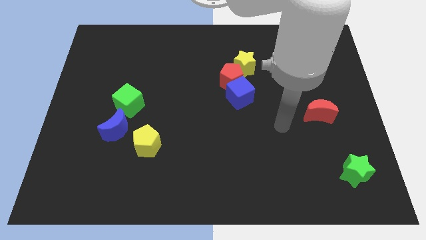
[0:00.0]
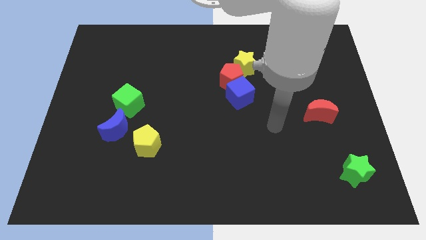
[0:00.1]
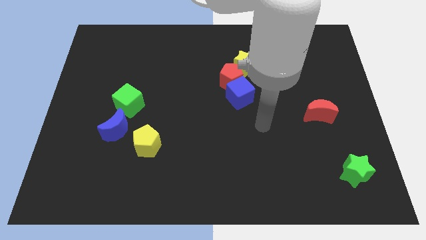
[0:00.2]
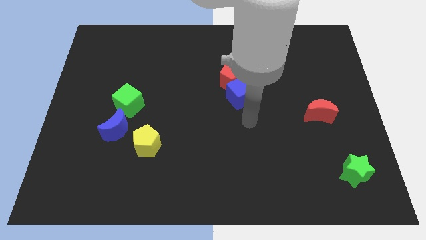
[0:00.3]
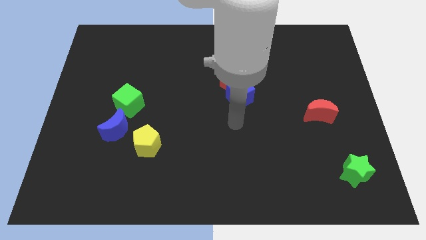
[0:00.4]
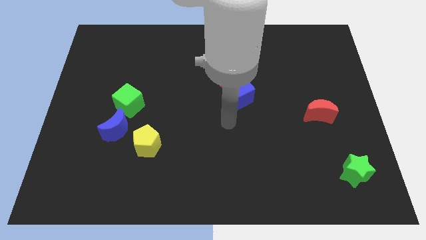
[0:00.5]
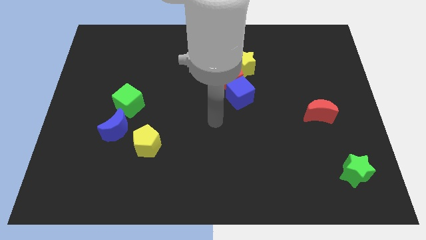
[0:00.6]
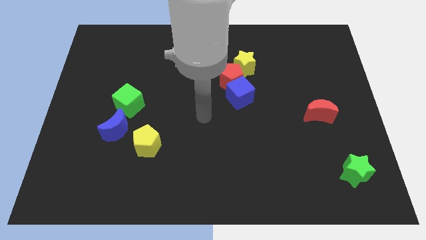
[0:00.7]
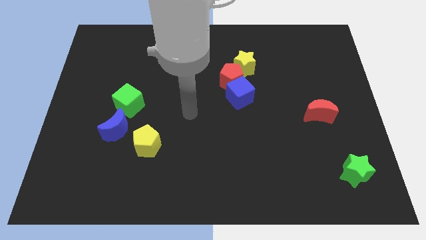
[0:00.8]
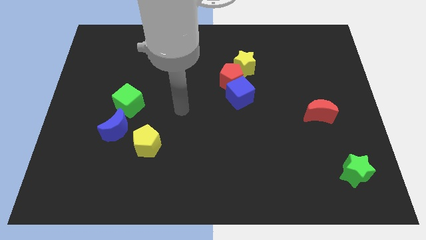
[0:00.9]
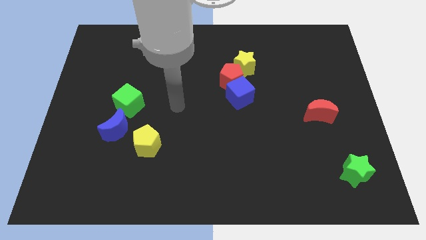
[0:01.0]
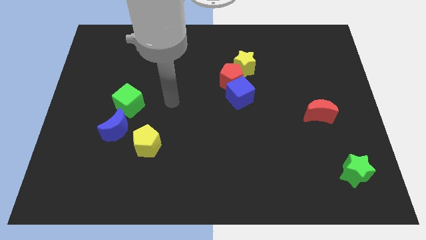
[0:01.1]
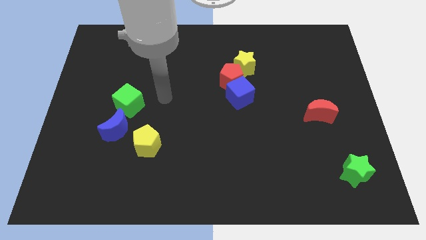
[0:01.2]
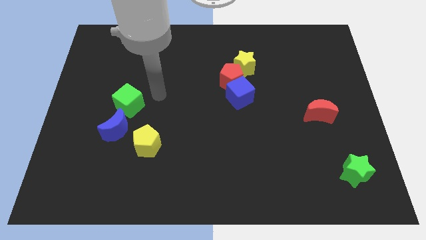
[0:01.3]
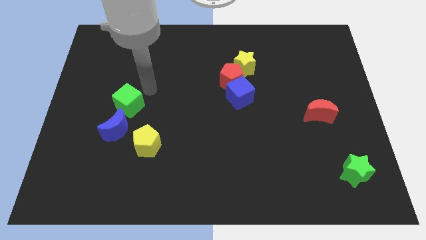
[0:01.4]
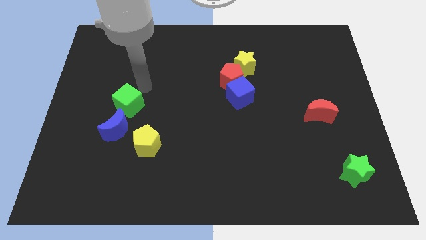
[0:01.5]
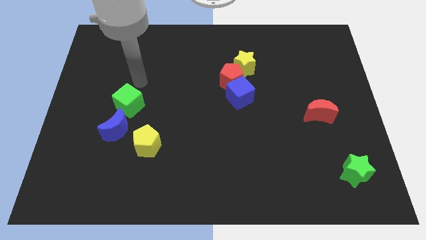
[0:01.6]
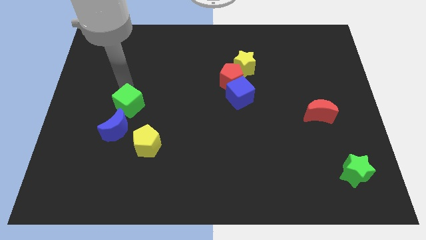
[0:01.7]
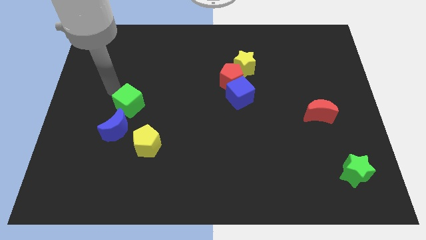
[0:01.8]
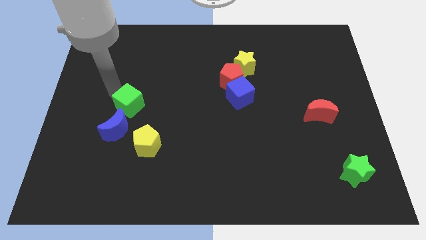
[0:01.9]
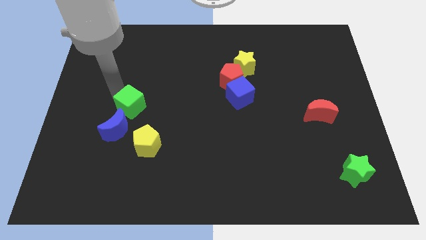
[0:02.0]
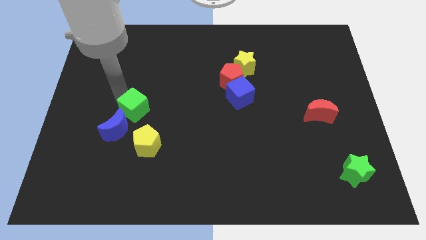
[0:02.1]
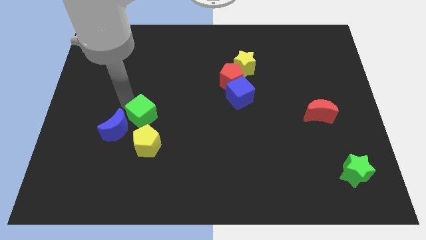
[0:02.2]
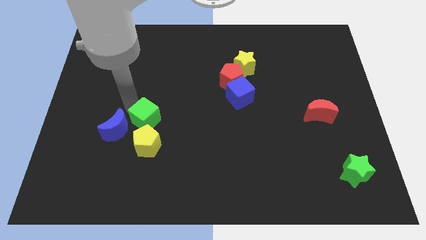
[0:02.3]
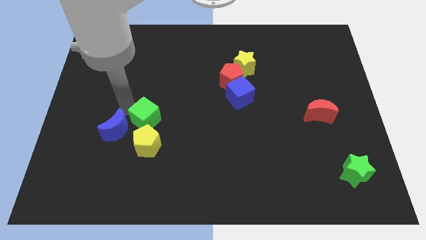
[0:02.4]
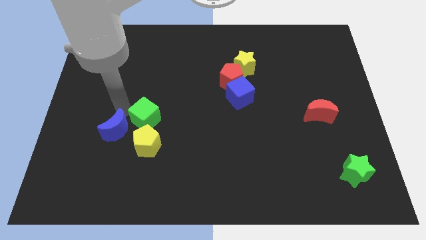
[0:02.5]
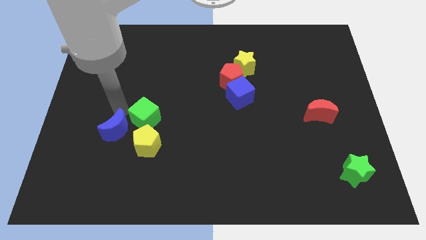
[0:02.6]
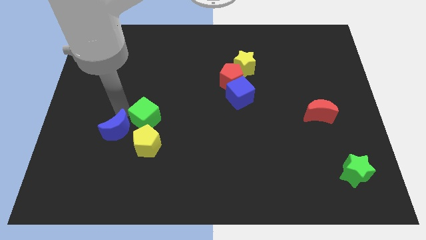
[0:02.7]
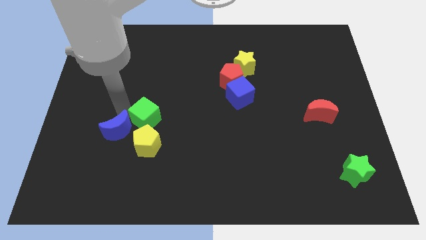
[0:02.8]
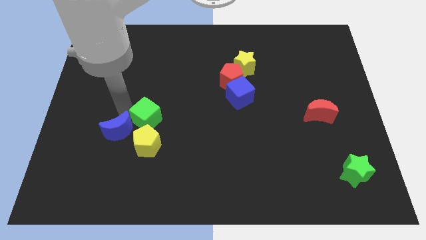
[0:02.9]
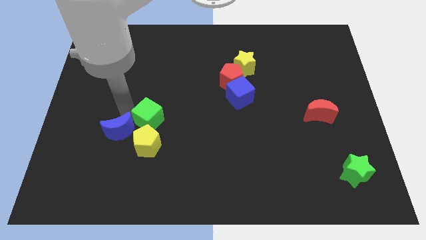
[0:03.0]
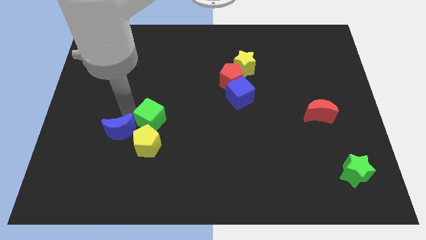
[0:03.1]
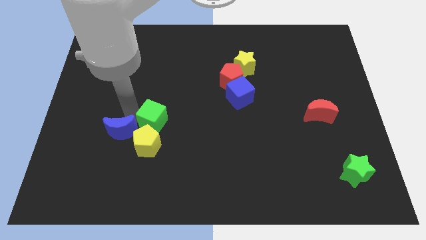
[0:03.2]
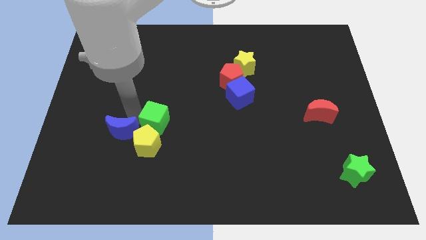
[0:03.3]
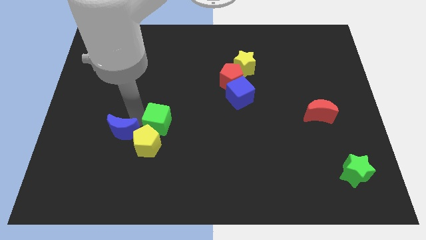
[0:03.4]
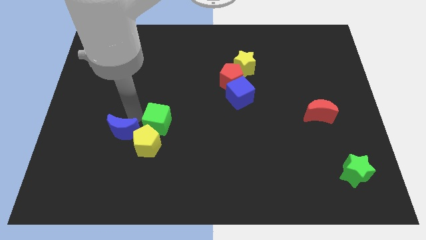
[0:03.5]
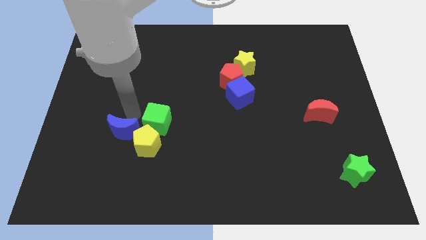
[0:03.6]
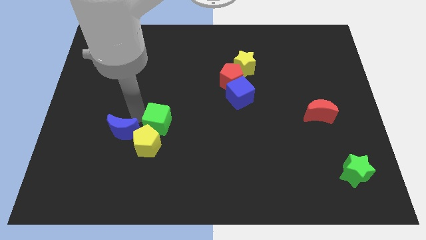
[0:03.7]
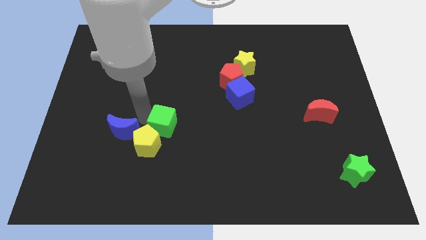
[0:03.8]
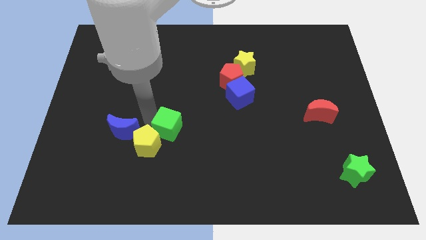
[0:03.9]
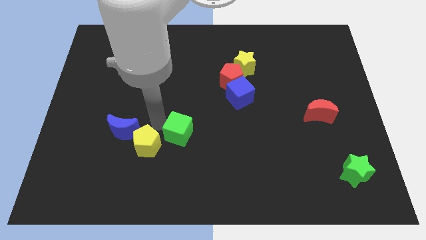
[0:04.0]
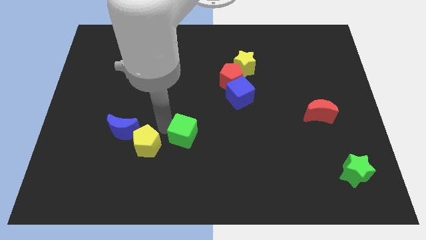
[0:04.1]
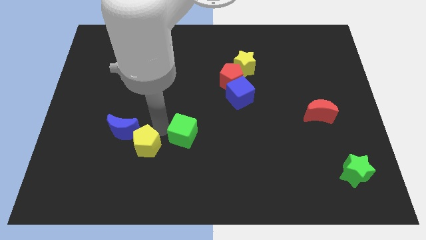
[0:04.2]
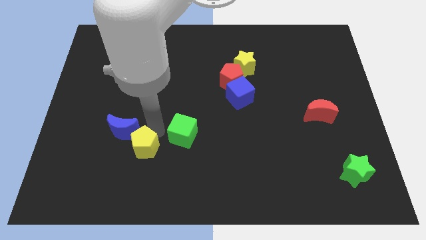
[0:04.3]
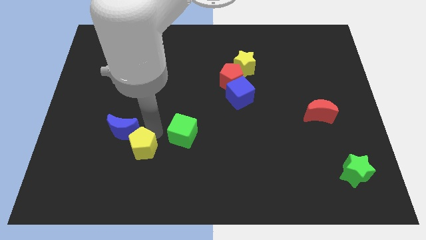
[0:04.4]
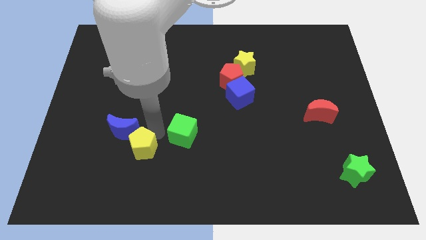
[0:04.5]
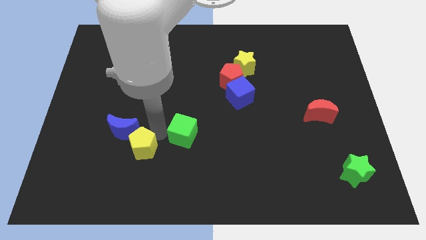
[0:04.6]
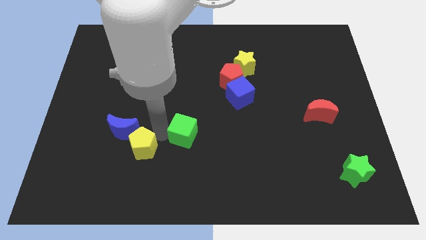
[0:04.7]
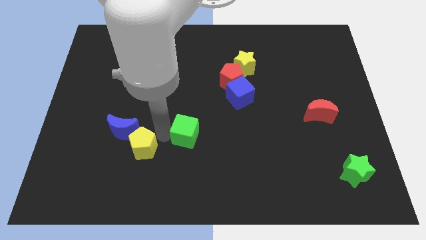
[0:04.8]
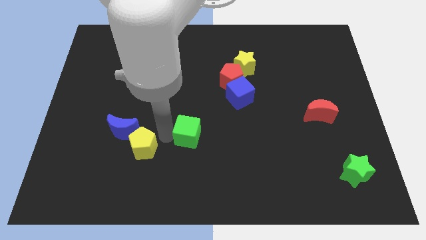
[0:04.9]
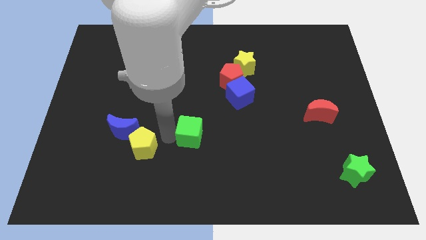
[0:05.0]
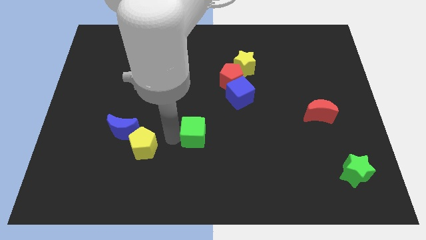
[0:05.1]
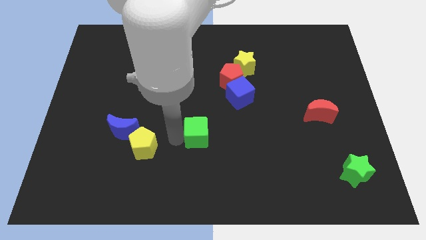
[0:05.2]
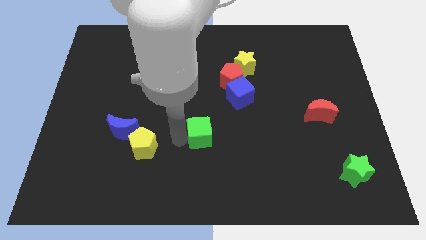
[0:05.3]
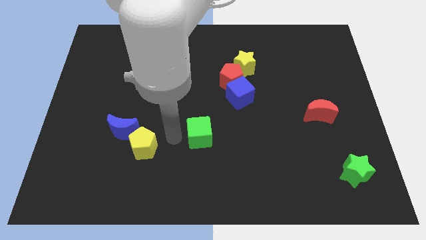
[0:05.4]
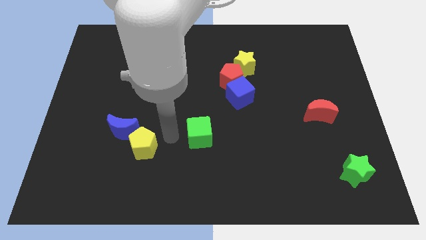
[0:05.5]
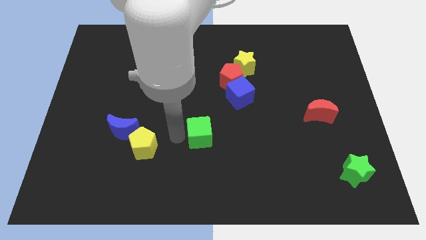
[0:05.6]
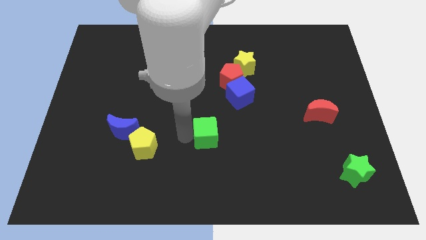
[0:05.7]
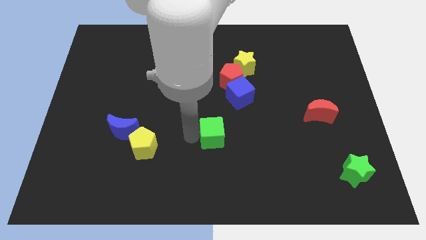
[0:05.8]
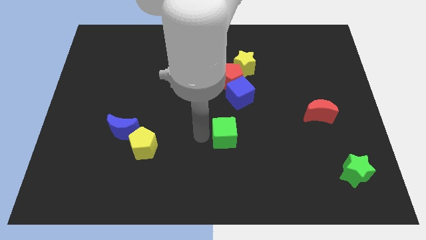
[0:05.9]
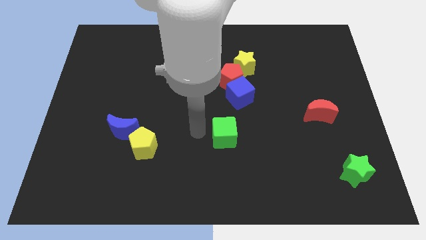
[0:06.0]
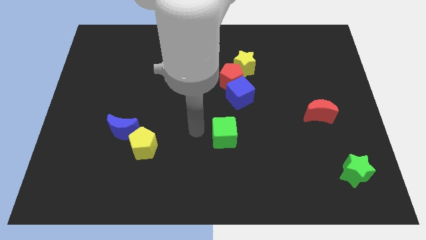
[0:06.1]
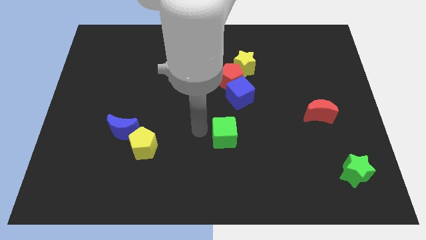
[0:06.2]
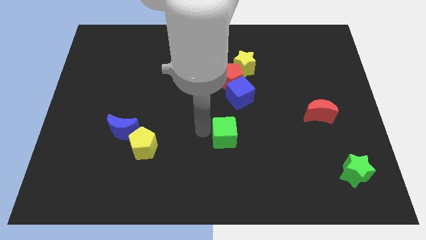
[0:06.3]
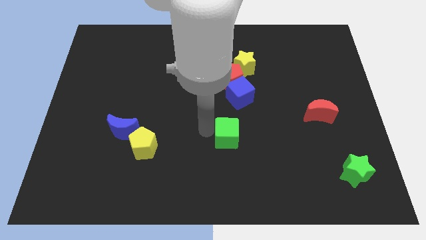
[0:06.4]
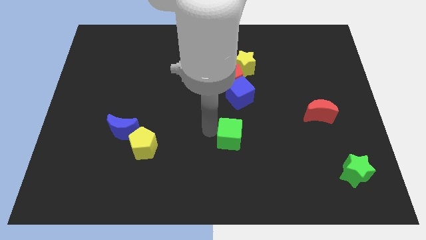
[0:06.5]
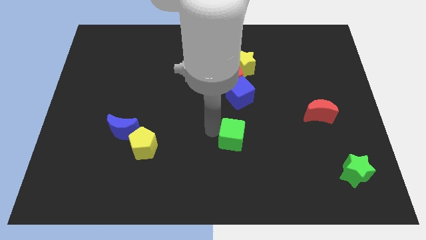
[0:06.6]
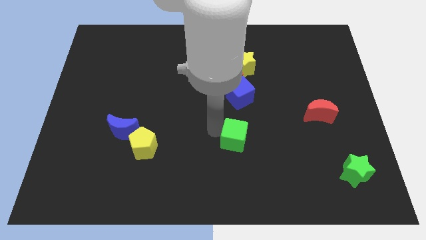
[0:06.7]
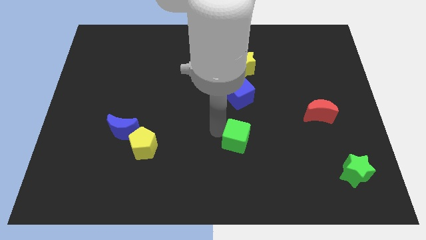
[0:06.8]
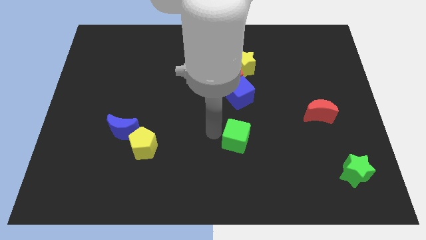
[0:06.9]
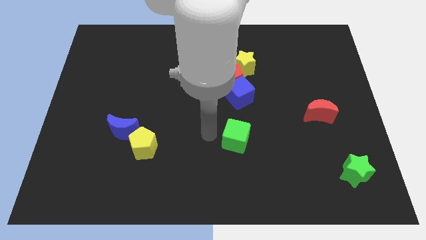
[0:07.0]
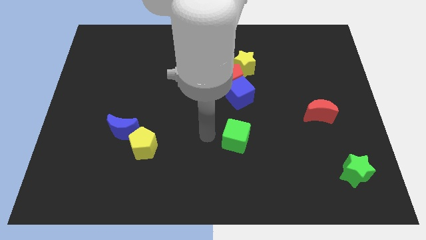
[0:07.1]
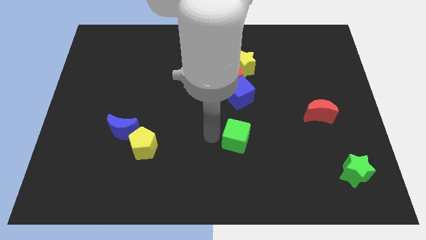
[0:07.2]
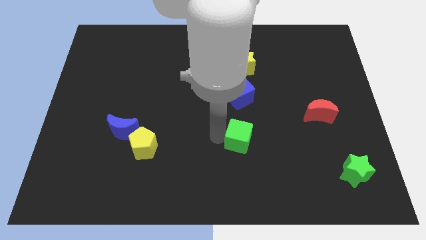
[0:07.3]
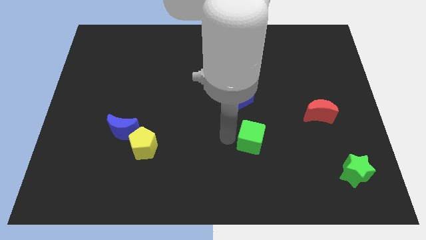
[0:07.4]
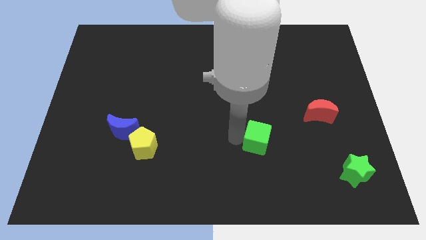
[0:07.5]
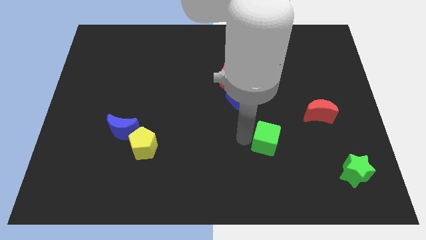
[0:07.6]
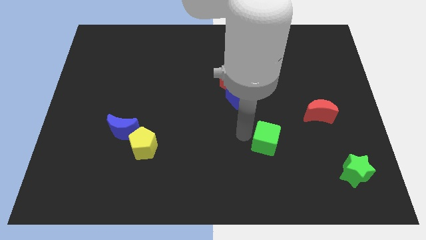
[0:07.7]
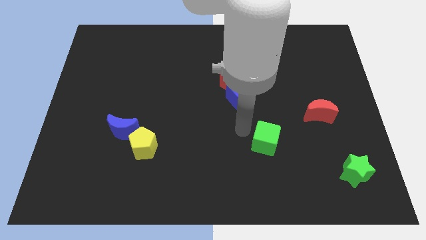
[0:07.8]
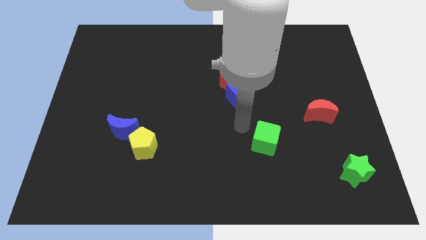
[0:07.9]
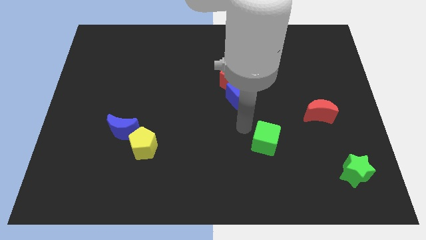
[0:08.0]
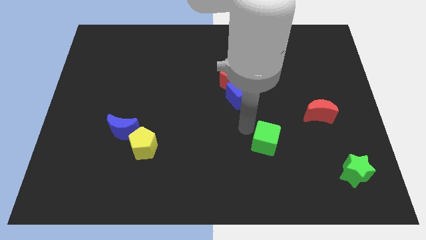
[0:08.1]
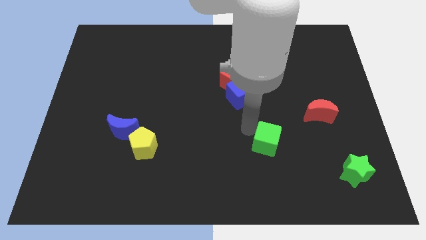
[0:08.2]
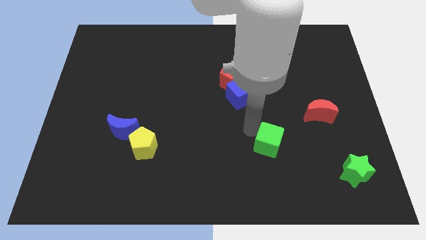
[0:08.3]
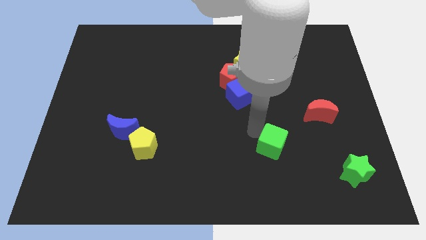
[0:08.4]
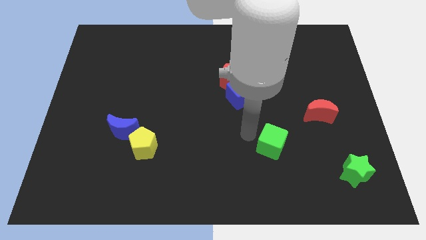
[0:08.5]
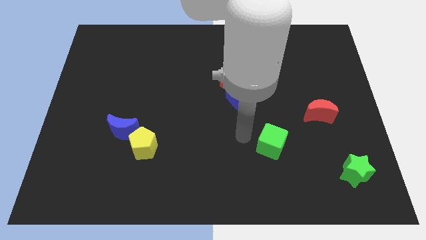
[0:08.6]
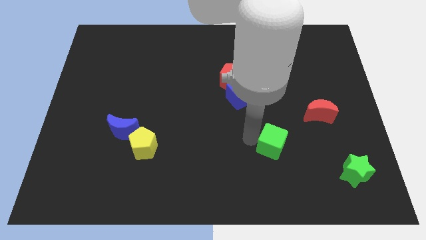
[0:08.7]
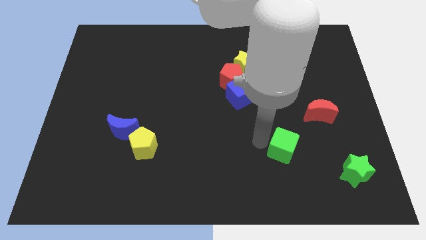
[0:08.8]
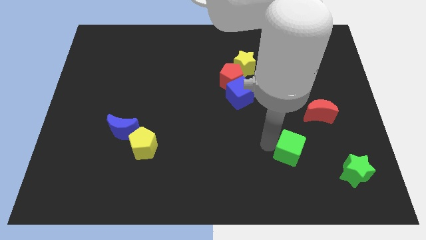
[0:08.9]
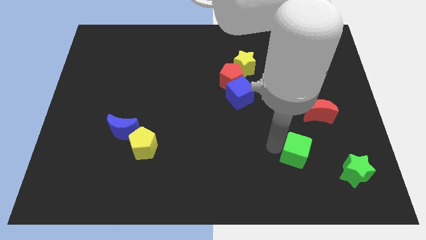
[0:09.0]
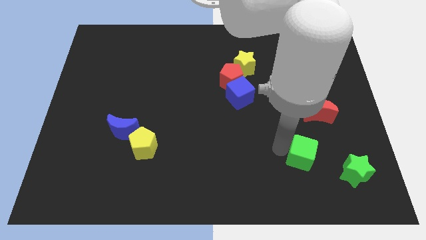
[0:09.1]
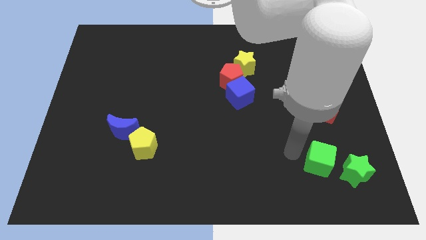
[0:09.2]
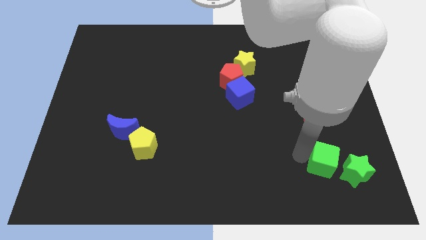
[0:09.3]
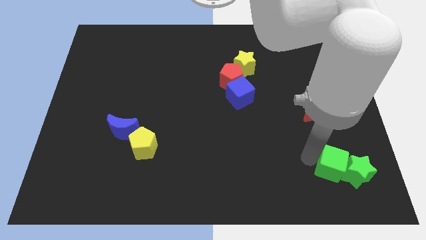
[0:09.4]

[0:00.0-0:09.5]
put the green cube close to the green star
